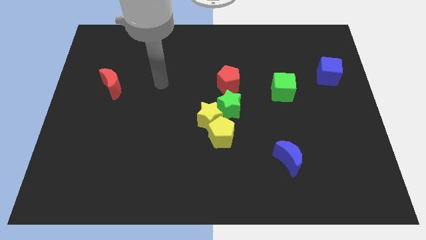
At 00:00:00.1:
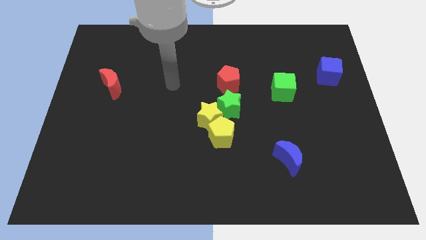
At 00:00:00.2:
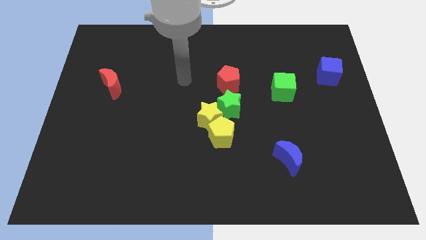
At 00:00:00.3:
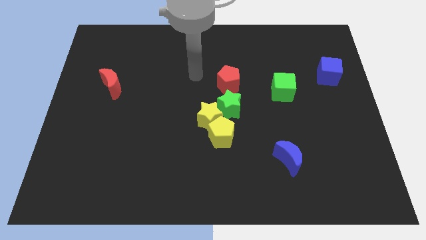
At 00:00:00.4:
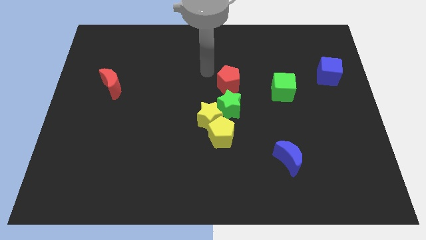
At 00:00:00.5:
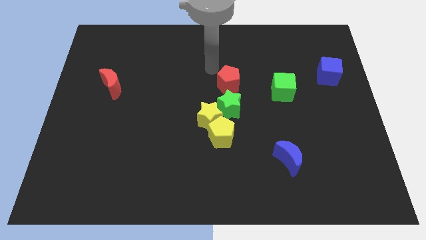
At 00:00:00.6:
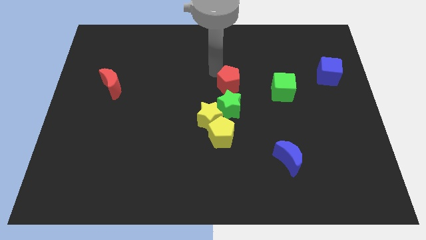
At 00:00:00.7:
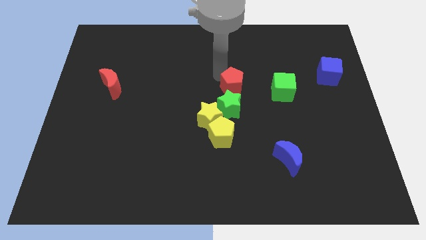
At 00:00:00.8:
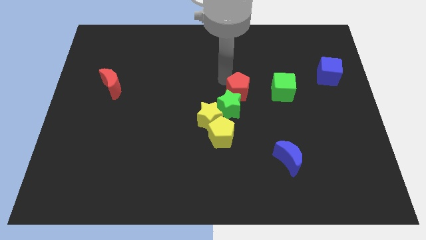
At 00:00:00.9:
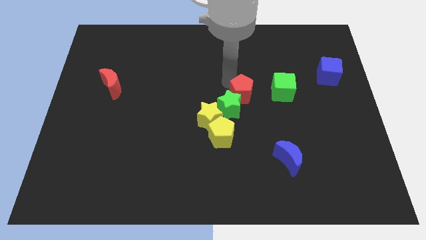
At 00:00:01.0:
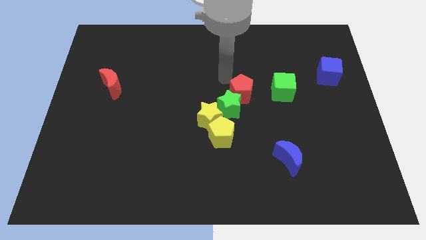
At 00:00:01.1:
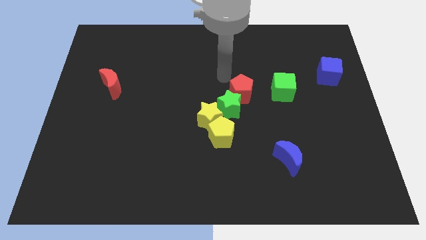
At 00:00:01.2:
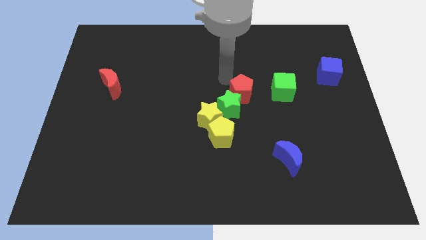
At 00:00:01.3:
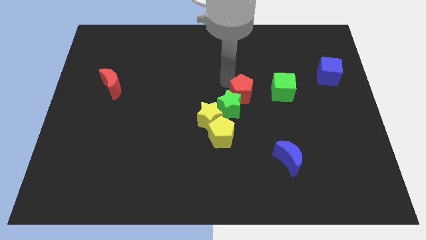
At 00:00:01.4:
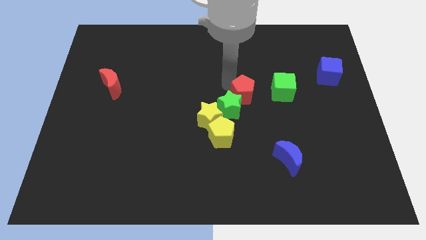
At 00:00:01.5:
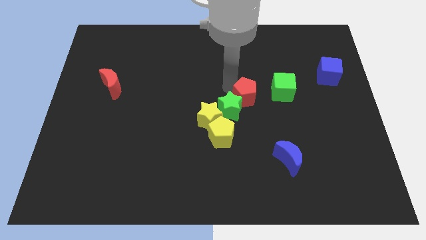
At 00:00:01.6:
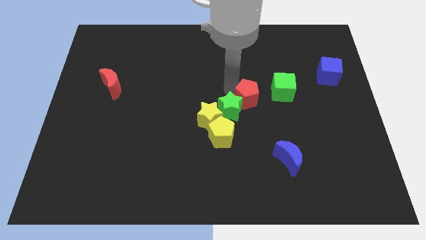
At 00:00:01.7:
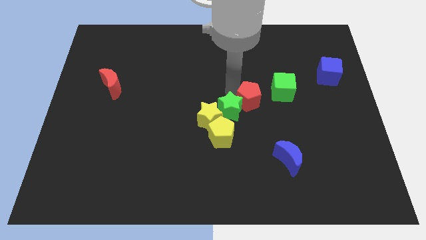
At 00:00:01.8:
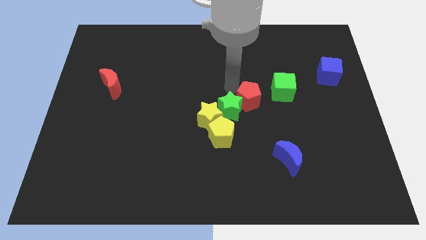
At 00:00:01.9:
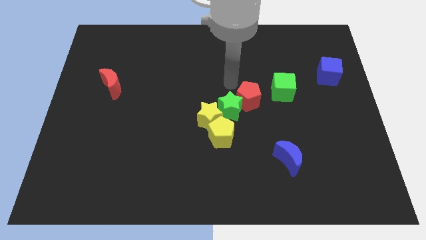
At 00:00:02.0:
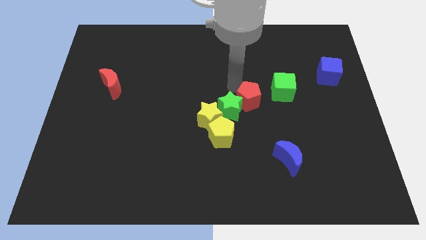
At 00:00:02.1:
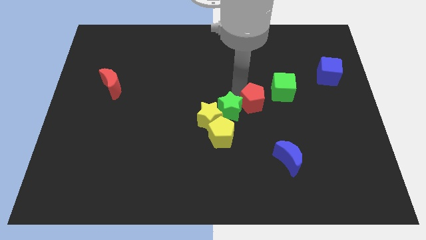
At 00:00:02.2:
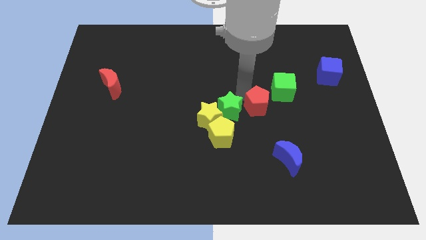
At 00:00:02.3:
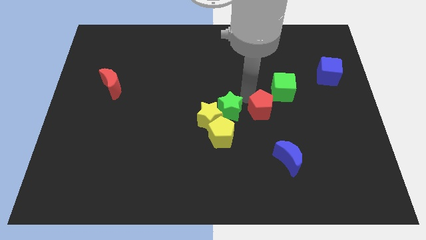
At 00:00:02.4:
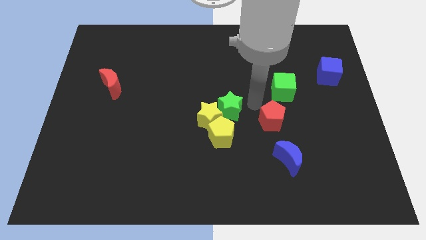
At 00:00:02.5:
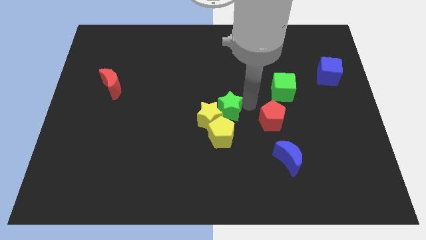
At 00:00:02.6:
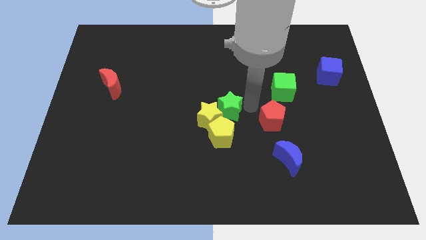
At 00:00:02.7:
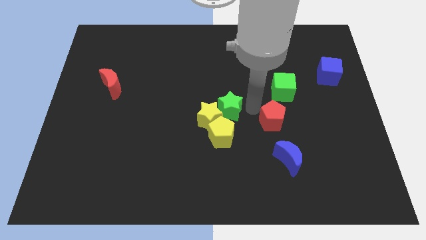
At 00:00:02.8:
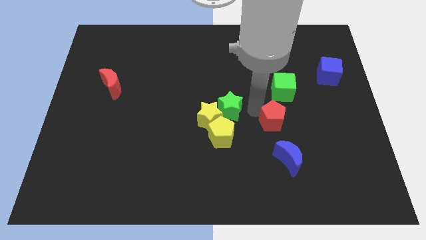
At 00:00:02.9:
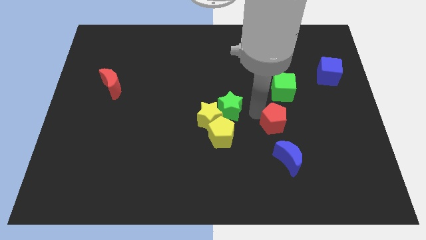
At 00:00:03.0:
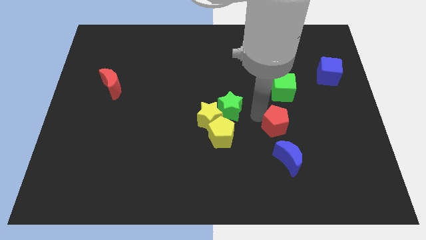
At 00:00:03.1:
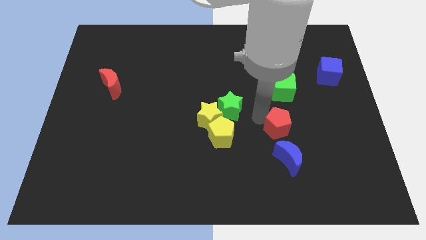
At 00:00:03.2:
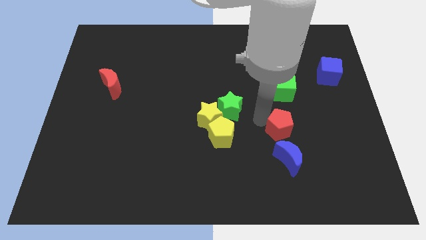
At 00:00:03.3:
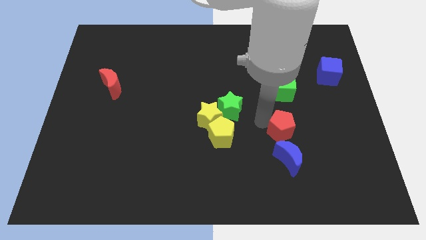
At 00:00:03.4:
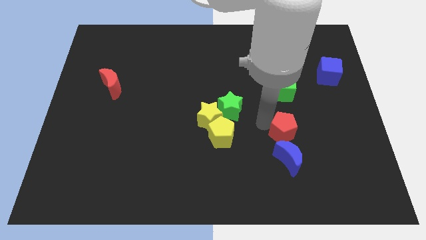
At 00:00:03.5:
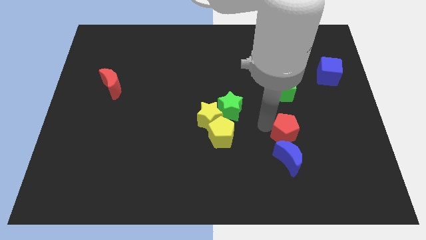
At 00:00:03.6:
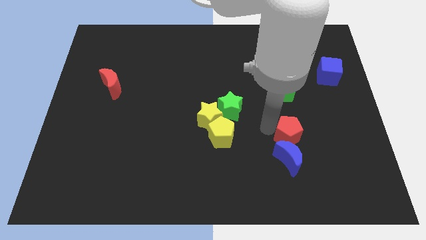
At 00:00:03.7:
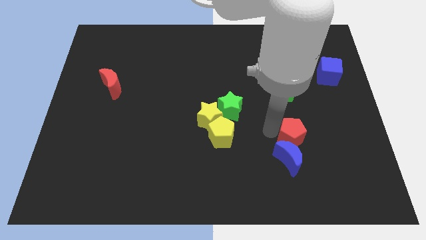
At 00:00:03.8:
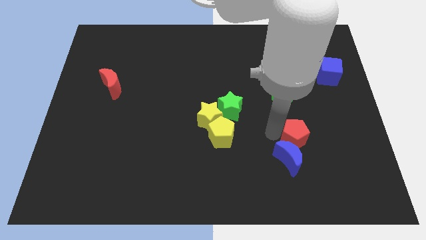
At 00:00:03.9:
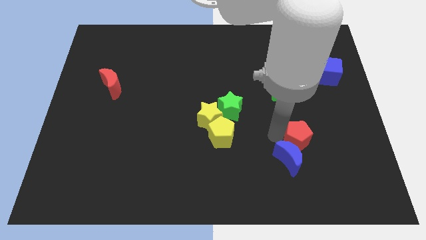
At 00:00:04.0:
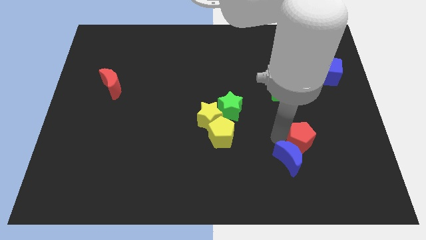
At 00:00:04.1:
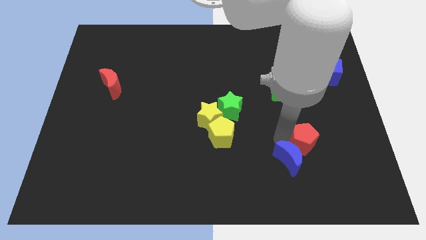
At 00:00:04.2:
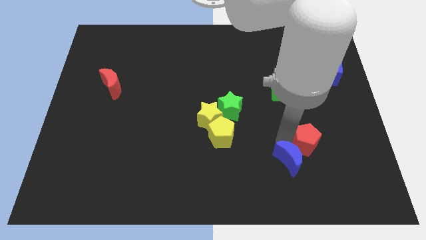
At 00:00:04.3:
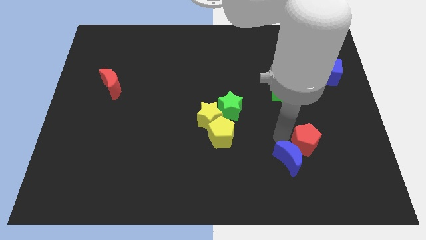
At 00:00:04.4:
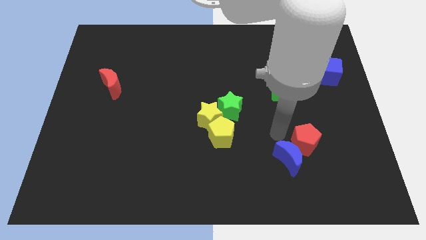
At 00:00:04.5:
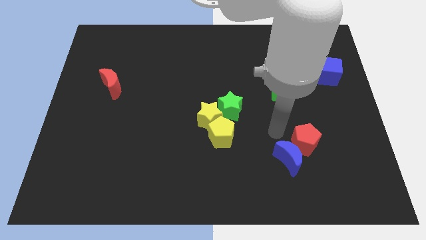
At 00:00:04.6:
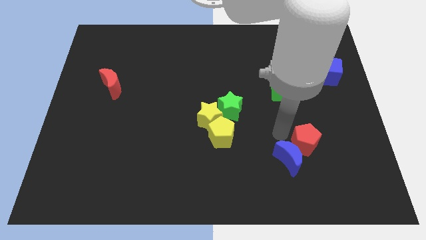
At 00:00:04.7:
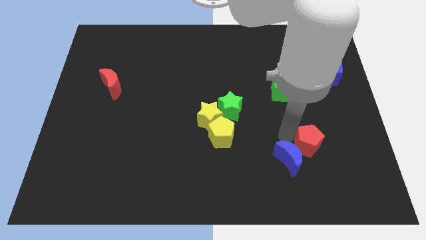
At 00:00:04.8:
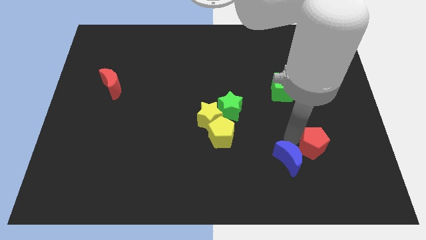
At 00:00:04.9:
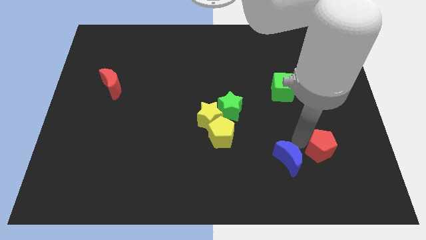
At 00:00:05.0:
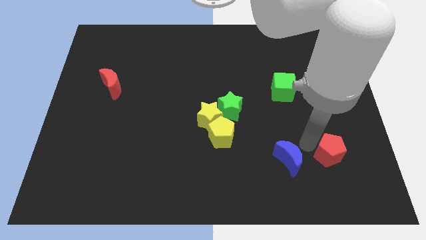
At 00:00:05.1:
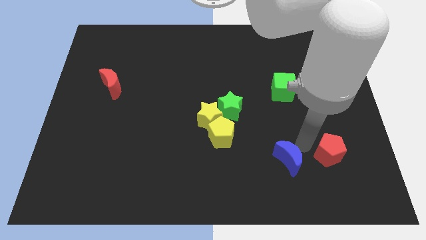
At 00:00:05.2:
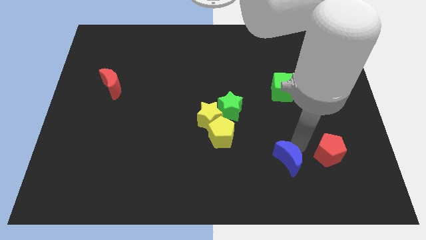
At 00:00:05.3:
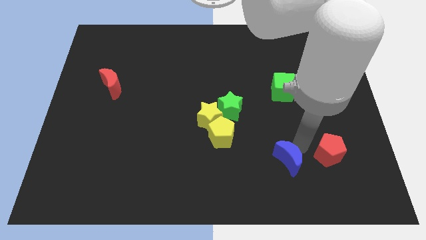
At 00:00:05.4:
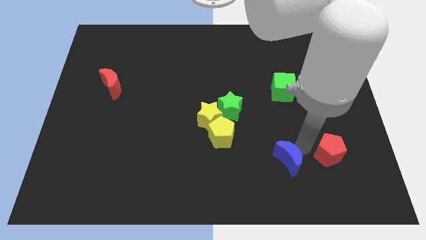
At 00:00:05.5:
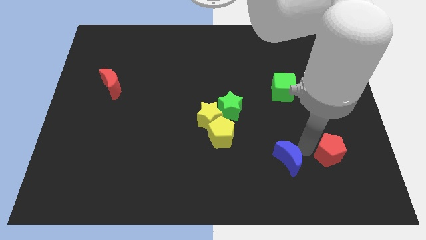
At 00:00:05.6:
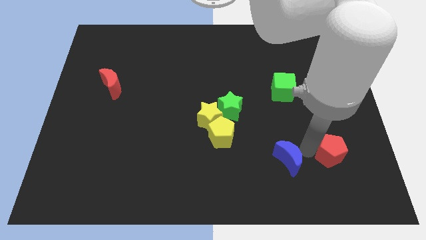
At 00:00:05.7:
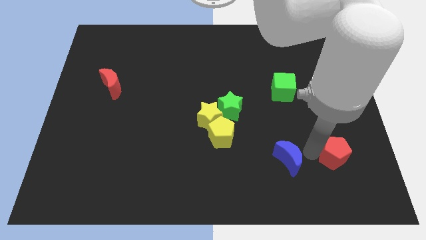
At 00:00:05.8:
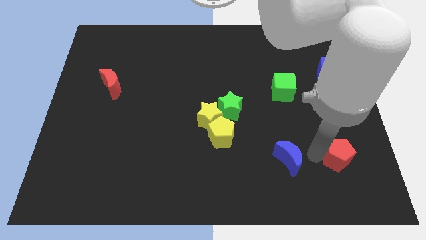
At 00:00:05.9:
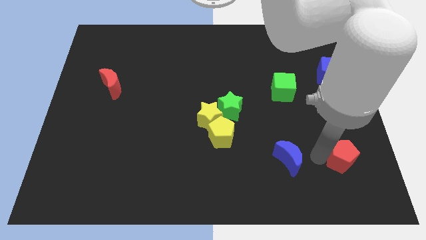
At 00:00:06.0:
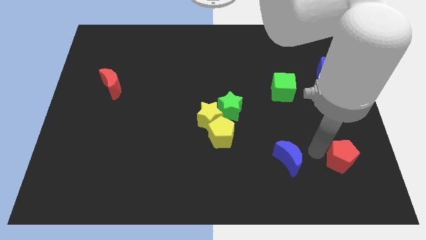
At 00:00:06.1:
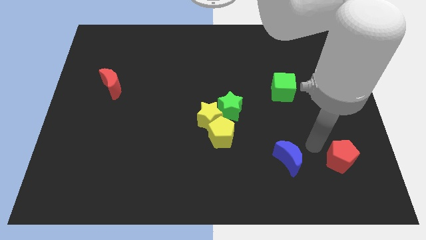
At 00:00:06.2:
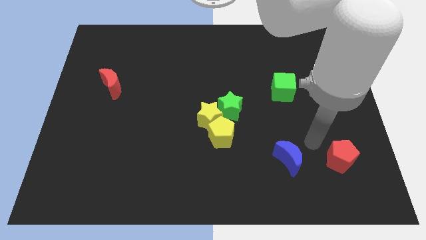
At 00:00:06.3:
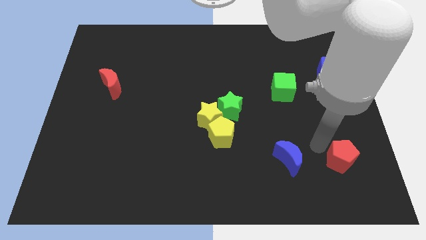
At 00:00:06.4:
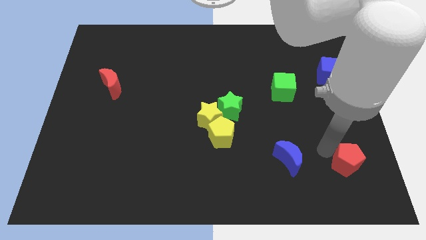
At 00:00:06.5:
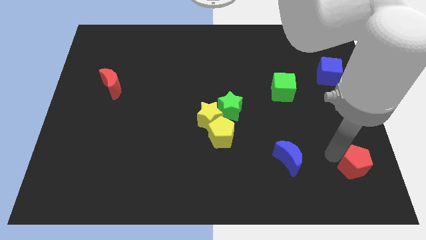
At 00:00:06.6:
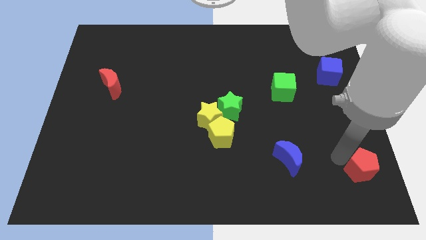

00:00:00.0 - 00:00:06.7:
slide the red pentagon to the bottom right of the board

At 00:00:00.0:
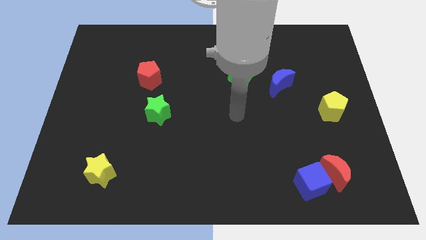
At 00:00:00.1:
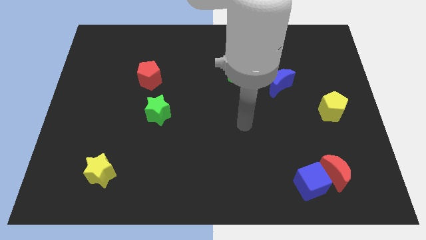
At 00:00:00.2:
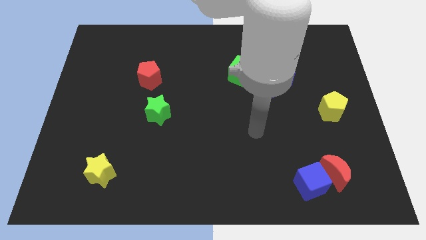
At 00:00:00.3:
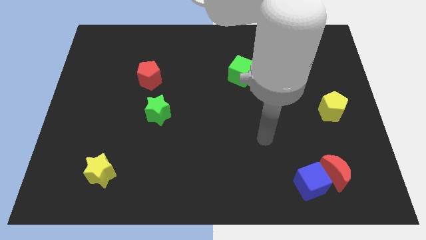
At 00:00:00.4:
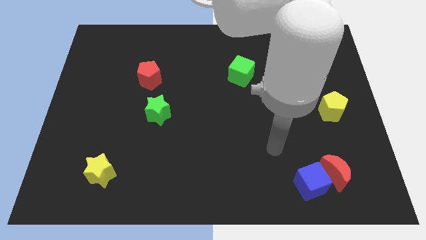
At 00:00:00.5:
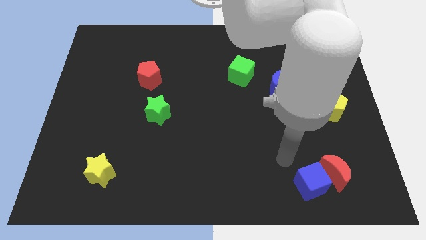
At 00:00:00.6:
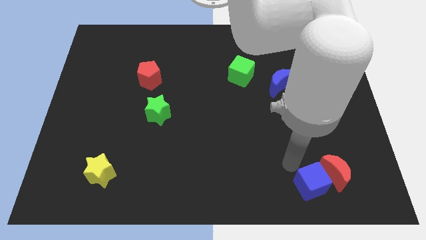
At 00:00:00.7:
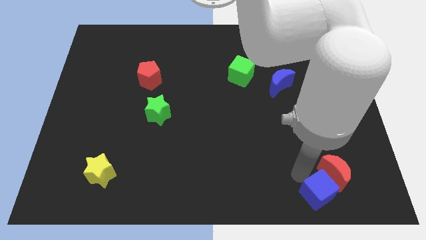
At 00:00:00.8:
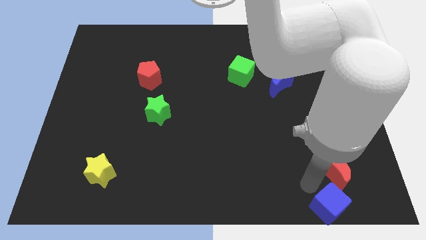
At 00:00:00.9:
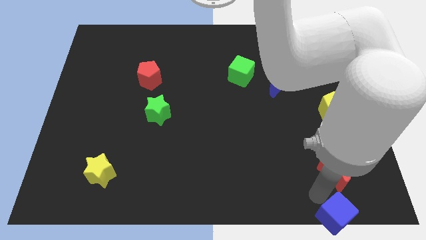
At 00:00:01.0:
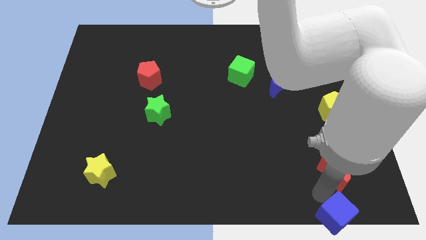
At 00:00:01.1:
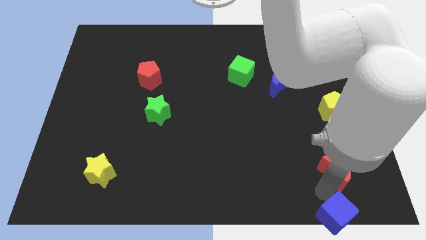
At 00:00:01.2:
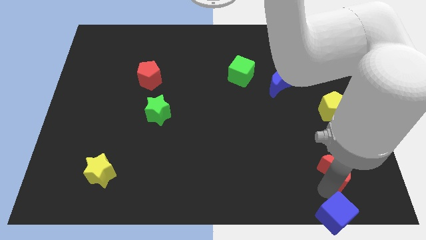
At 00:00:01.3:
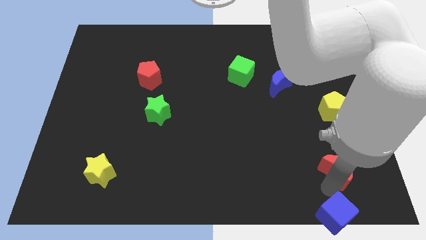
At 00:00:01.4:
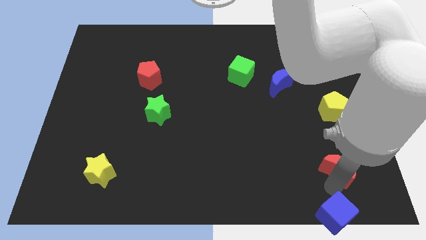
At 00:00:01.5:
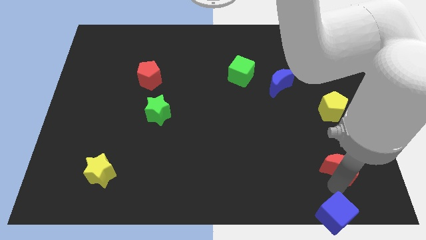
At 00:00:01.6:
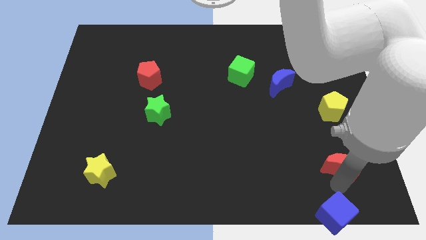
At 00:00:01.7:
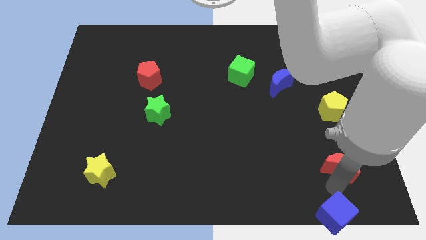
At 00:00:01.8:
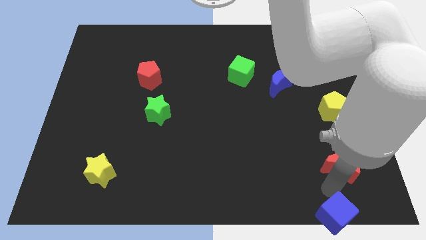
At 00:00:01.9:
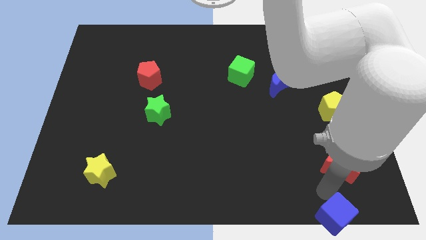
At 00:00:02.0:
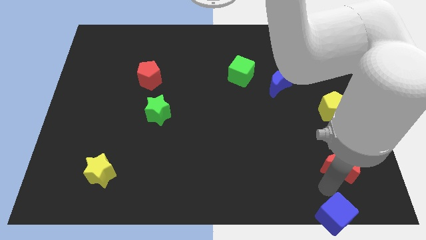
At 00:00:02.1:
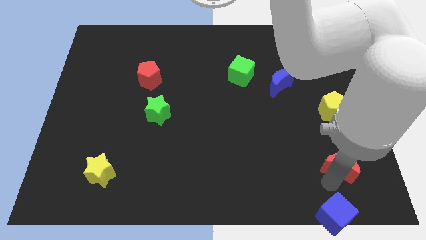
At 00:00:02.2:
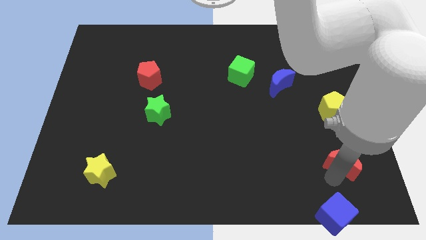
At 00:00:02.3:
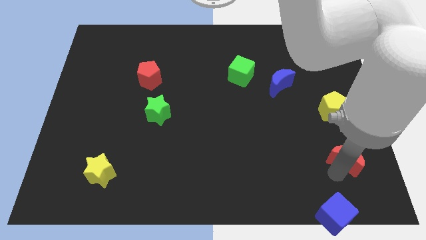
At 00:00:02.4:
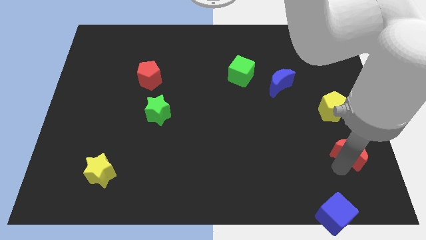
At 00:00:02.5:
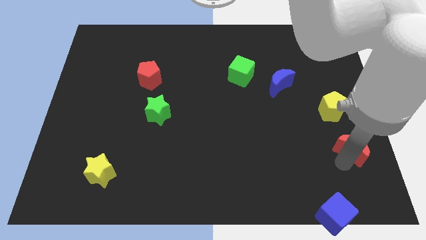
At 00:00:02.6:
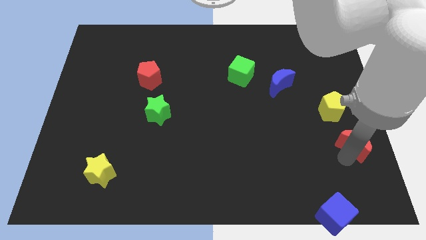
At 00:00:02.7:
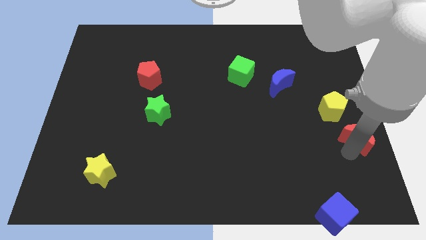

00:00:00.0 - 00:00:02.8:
push the red moon to the center right
